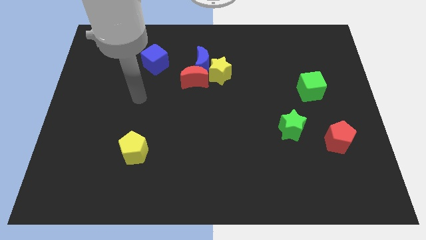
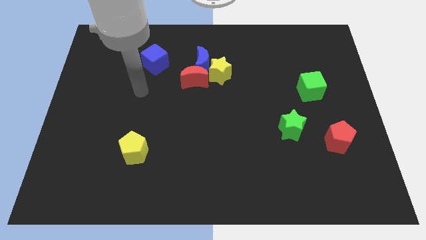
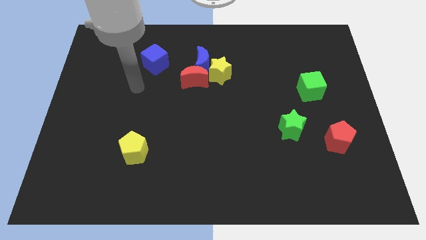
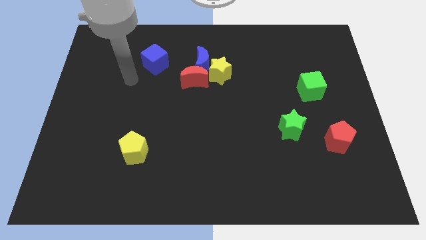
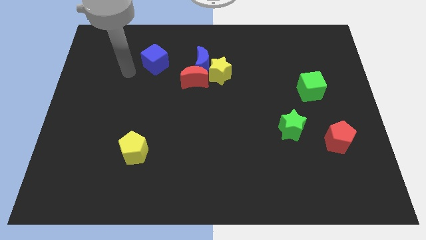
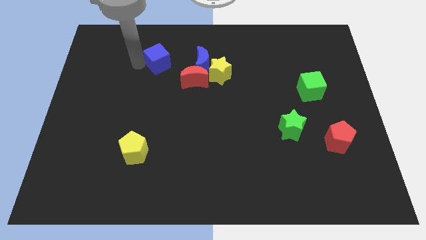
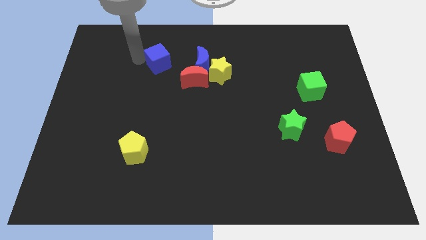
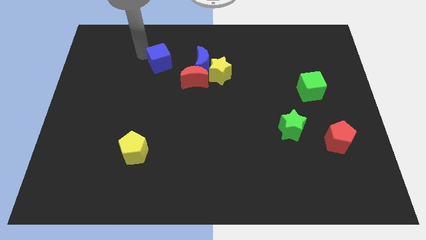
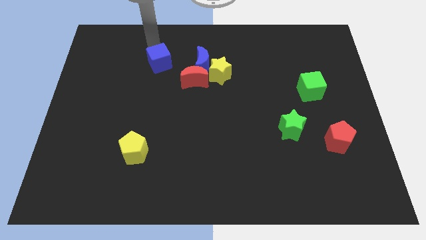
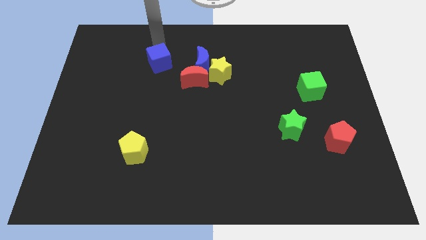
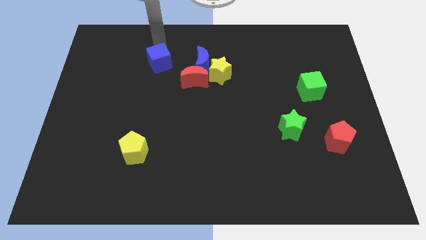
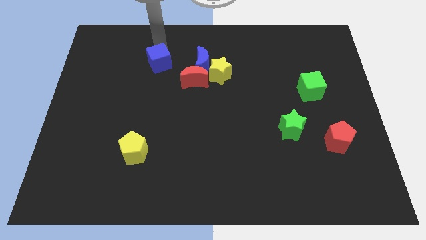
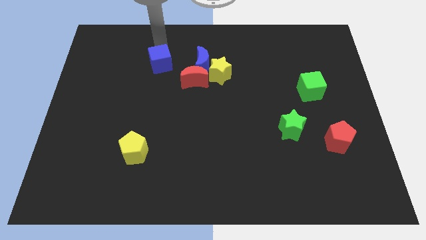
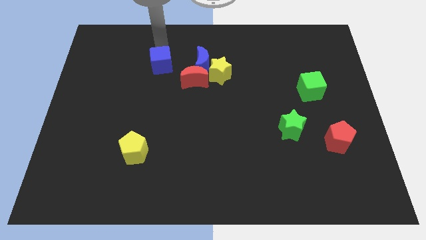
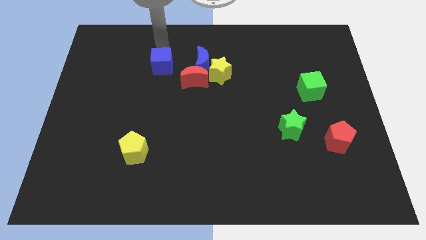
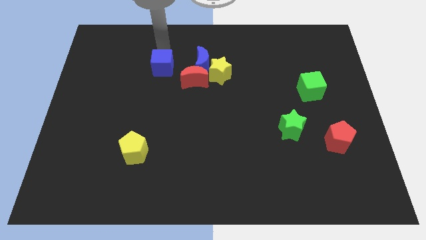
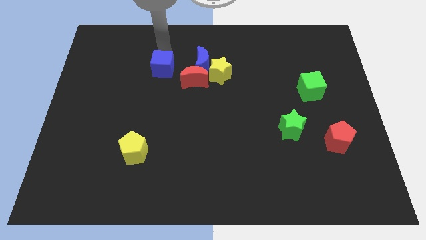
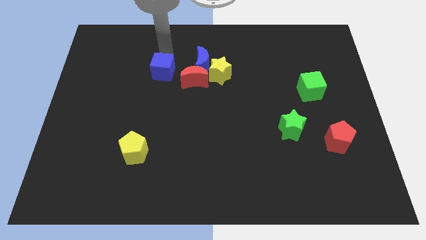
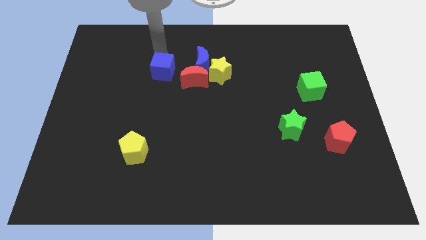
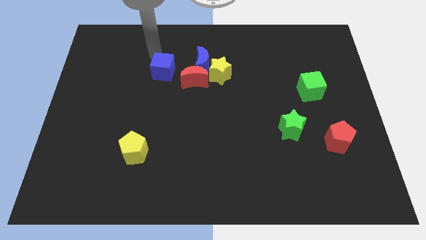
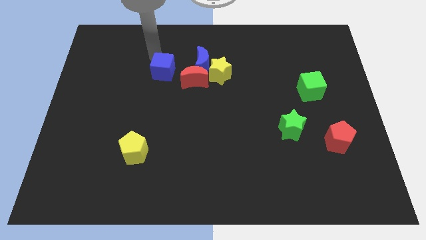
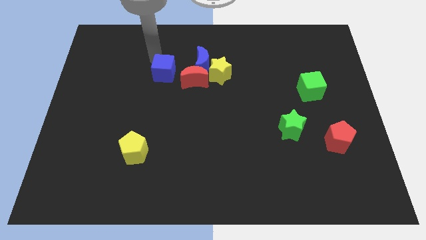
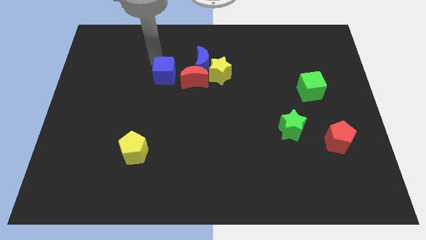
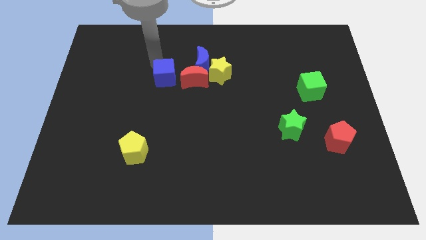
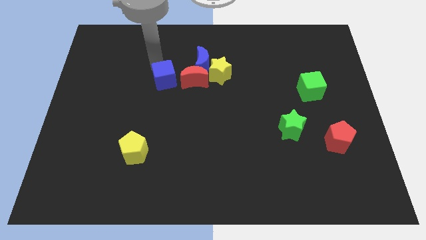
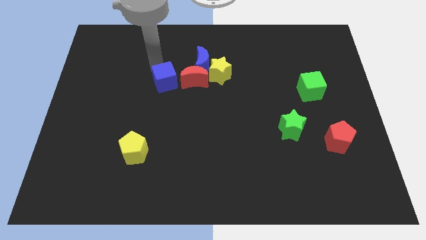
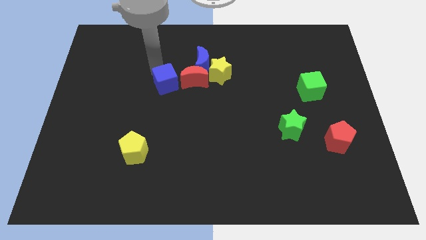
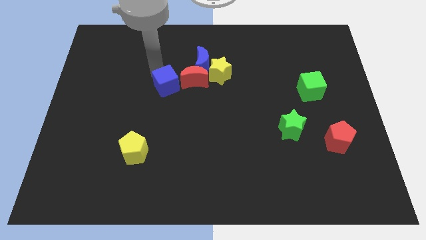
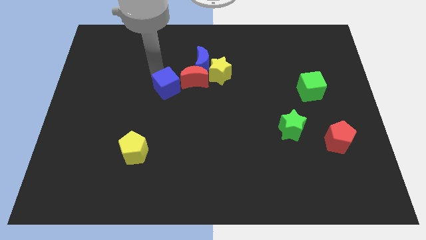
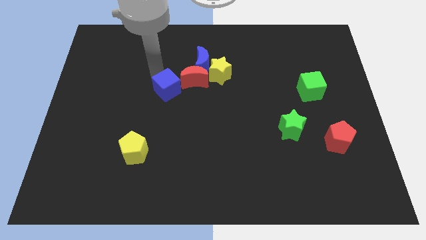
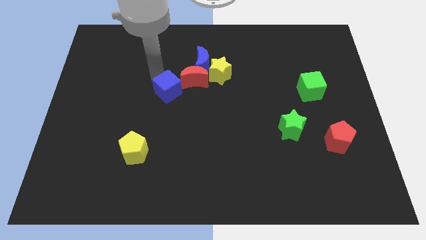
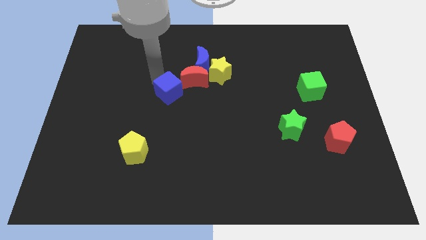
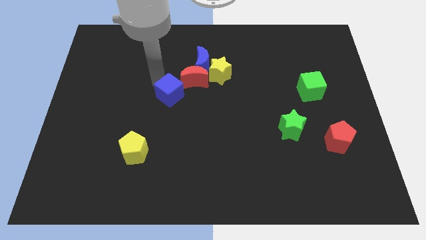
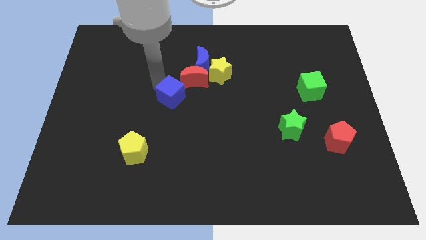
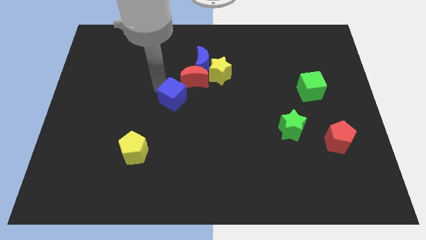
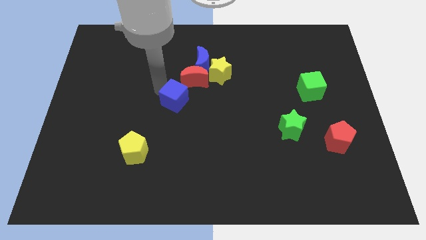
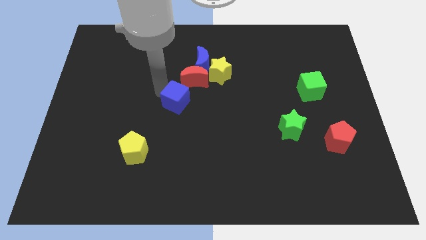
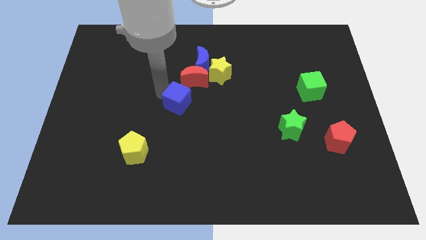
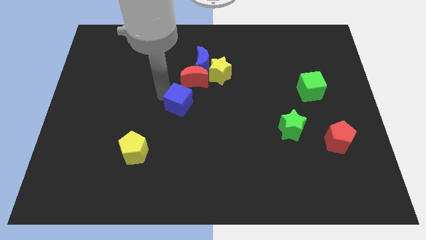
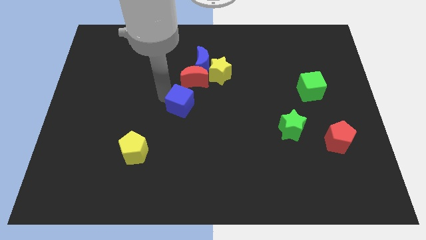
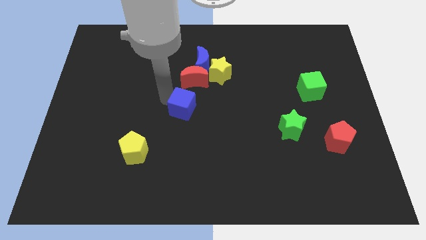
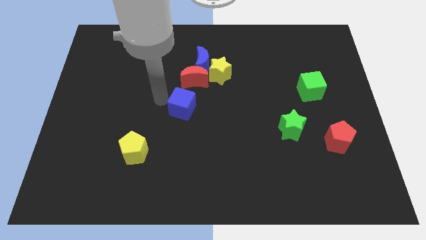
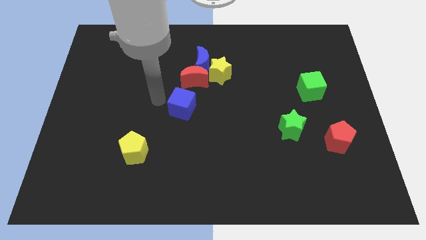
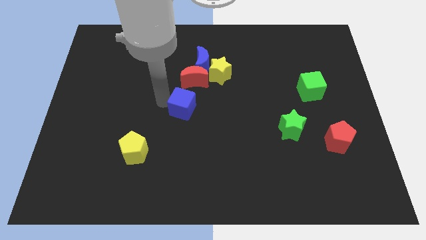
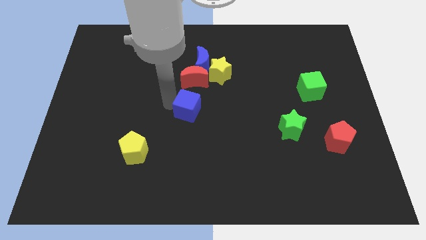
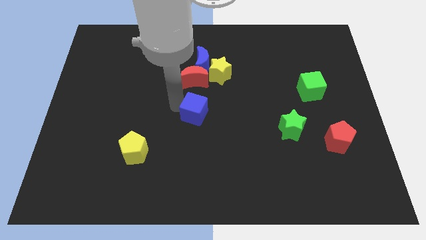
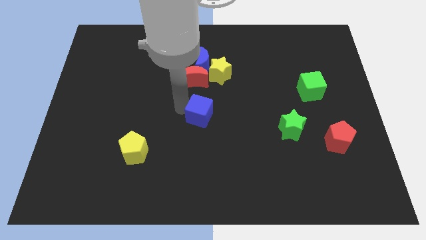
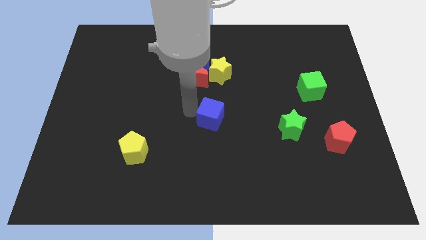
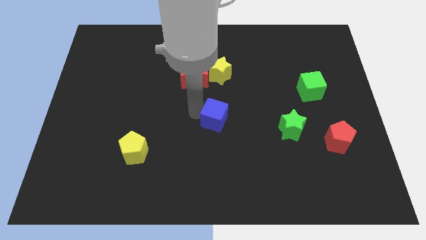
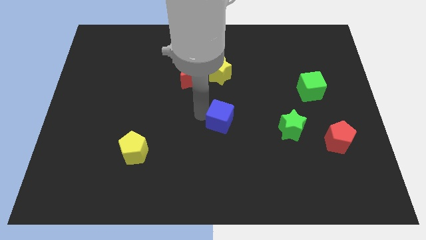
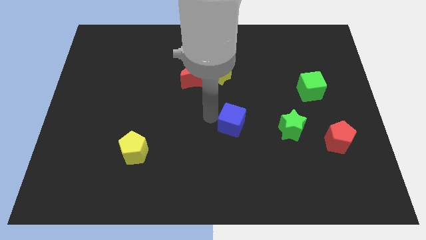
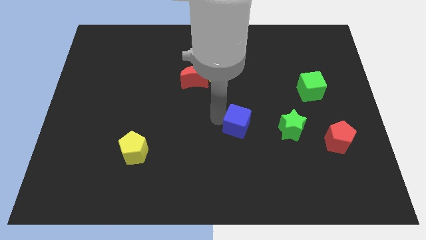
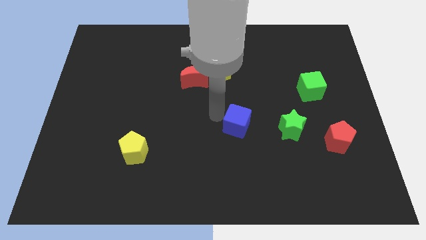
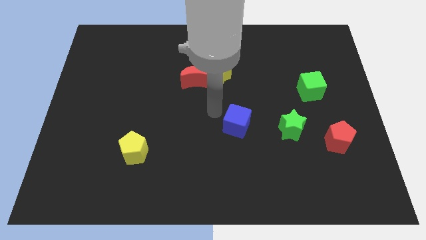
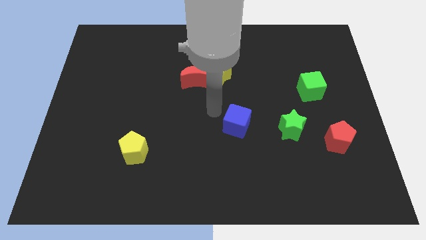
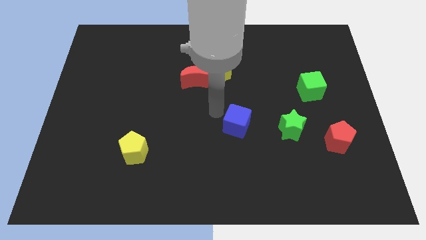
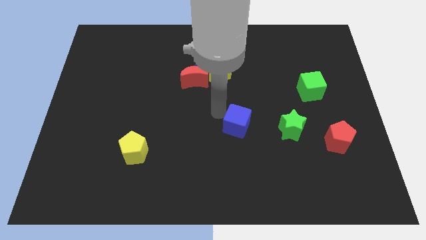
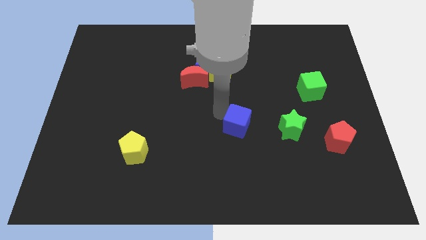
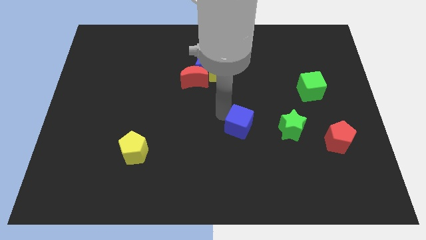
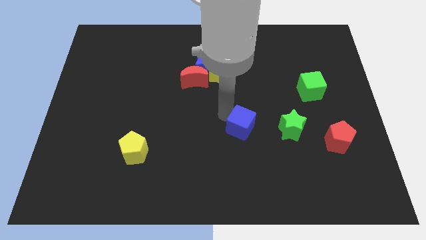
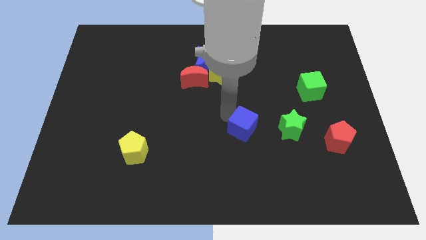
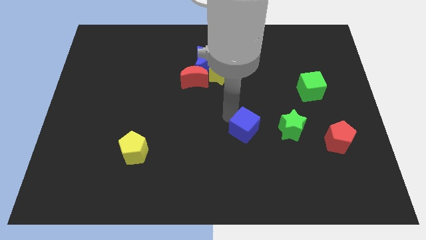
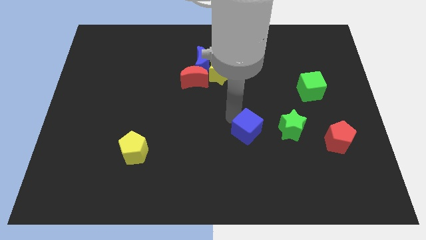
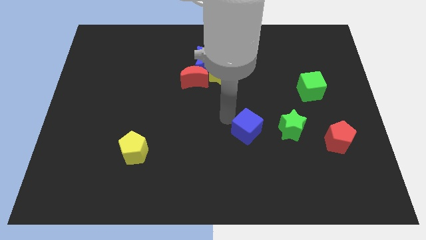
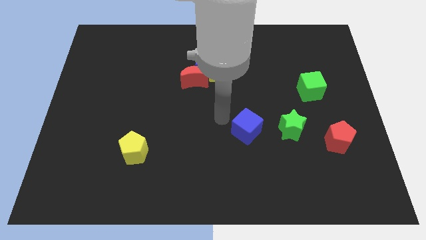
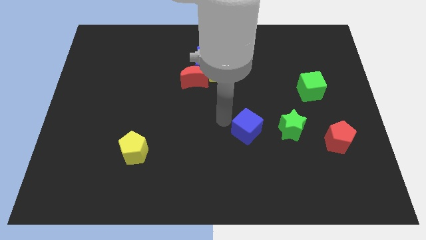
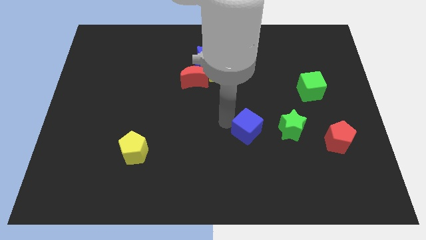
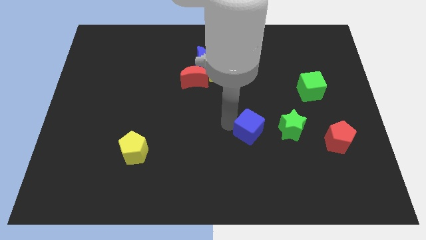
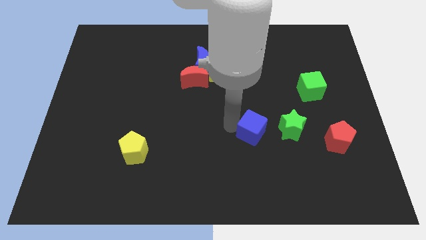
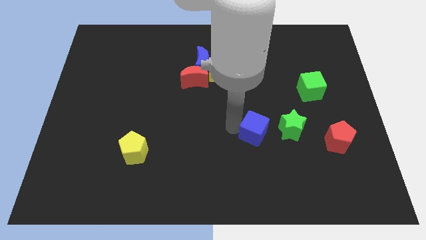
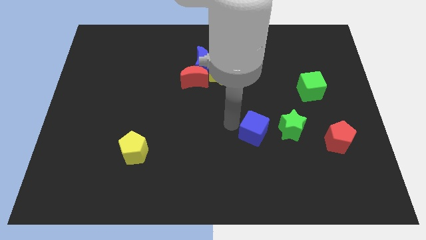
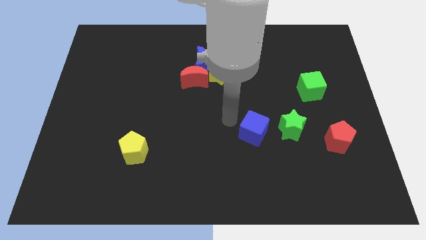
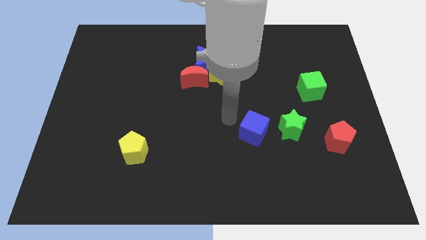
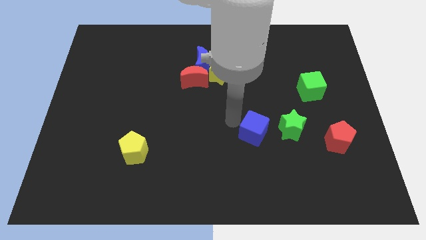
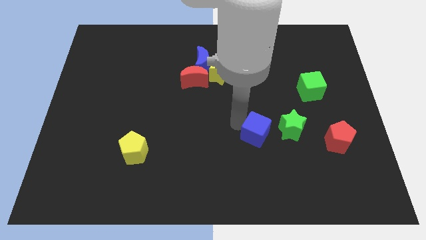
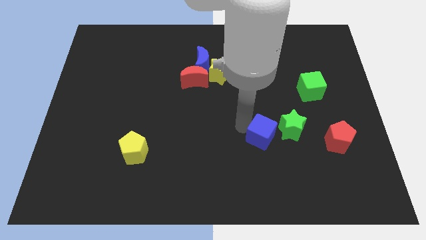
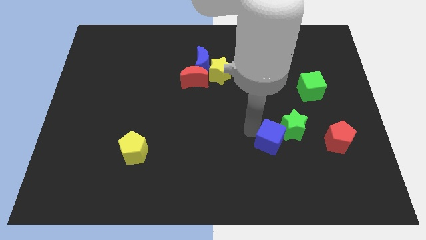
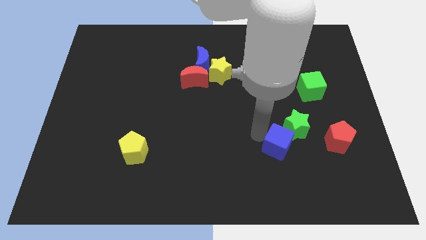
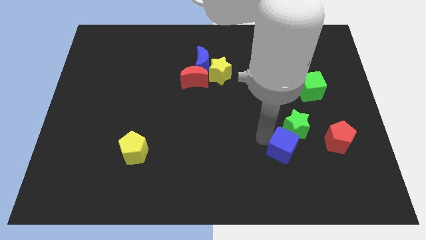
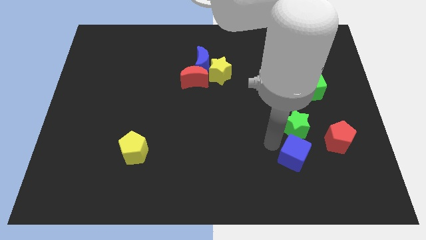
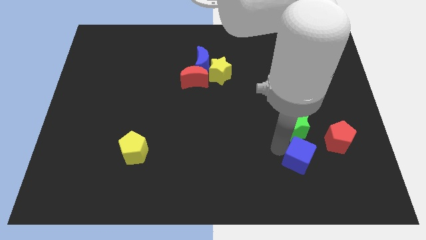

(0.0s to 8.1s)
slide the blue cube diagonally down and to the left of the red pentagon
